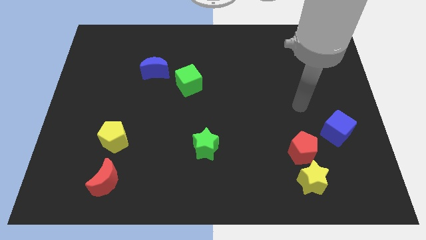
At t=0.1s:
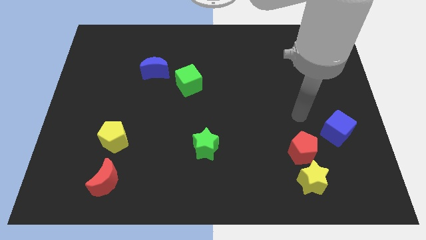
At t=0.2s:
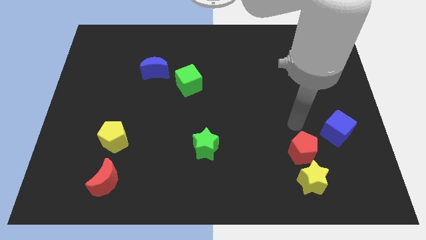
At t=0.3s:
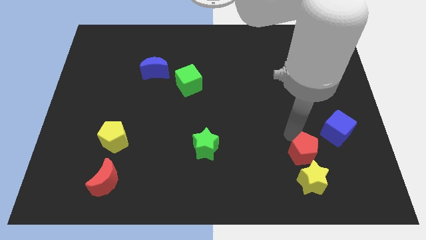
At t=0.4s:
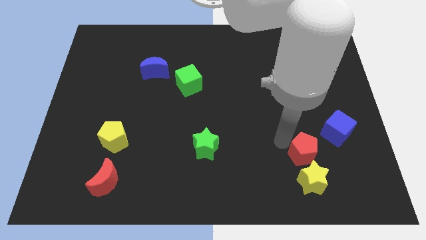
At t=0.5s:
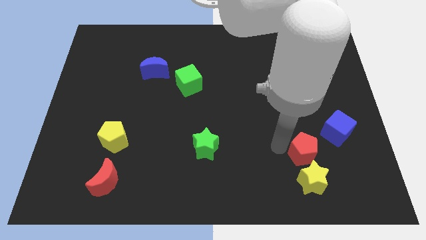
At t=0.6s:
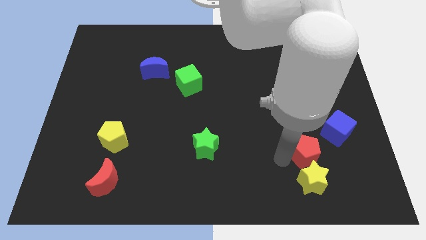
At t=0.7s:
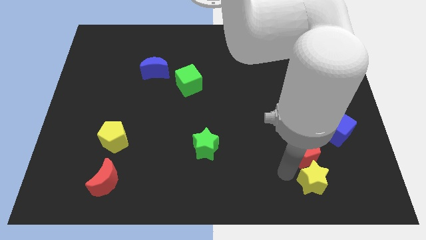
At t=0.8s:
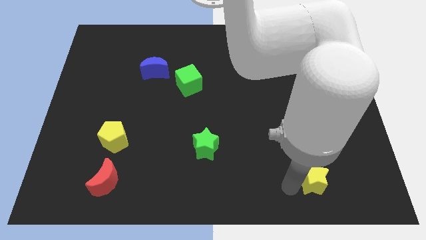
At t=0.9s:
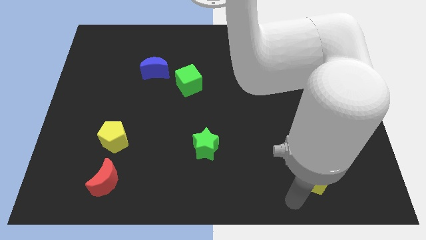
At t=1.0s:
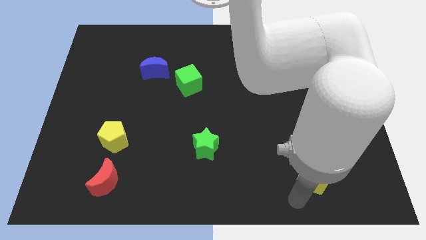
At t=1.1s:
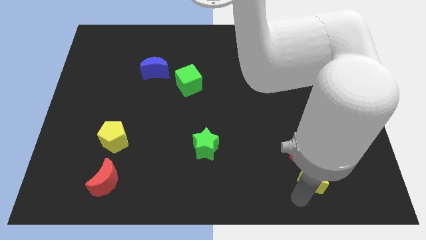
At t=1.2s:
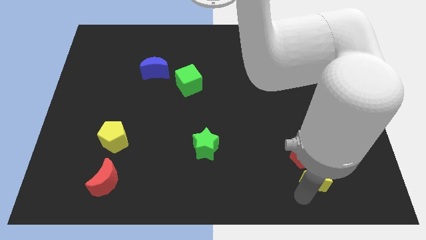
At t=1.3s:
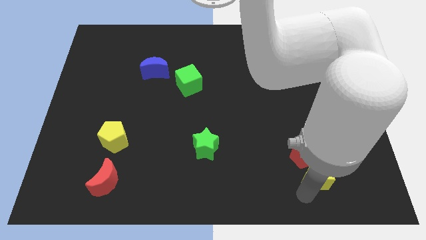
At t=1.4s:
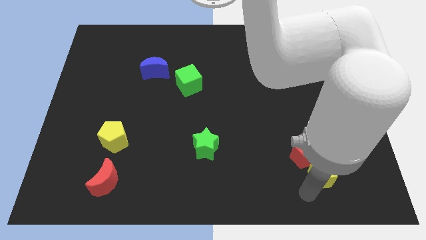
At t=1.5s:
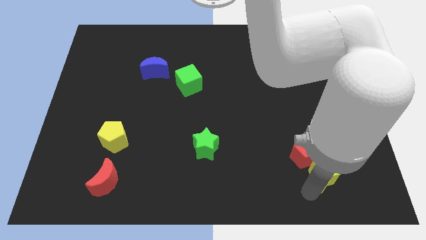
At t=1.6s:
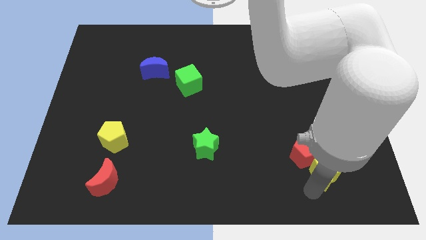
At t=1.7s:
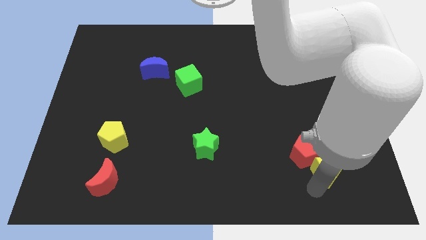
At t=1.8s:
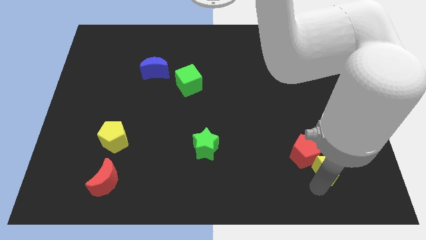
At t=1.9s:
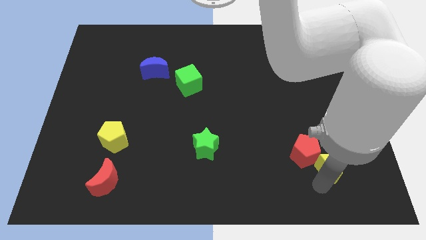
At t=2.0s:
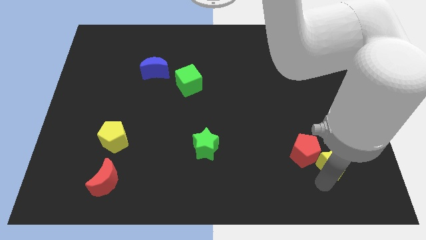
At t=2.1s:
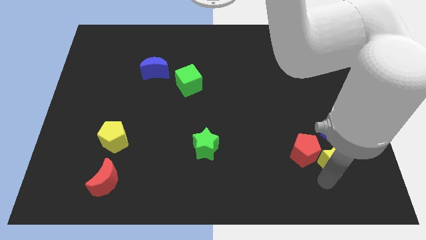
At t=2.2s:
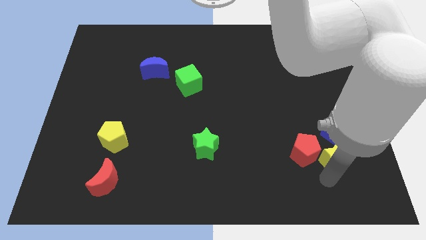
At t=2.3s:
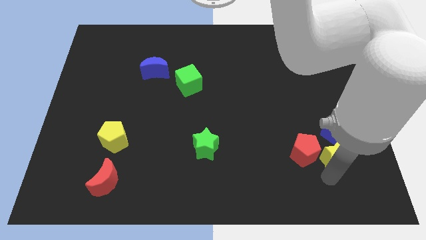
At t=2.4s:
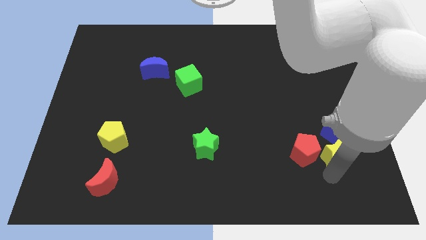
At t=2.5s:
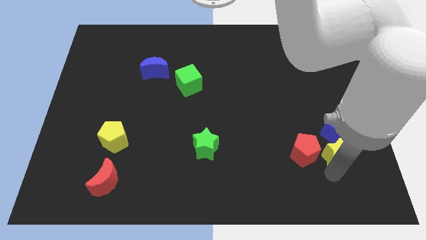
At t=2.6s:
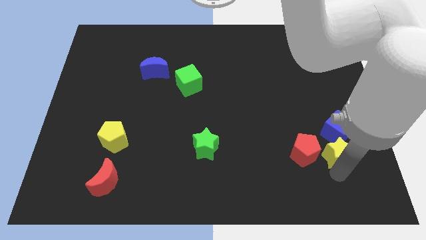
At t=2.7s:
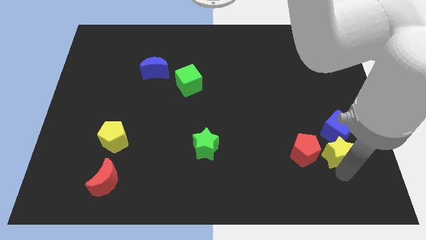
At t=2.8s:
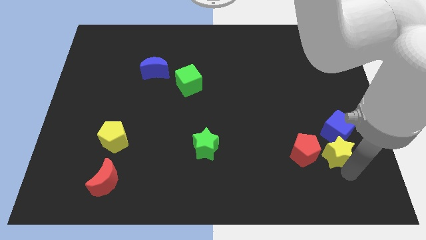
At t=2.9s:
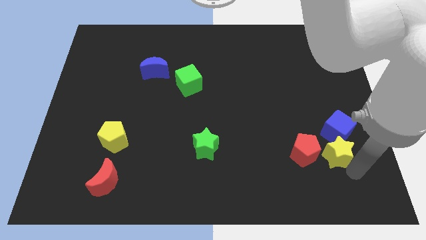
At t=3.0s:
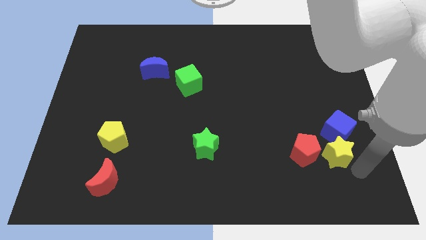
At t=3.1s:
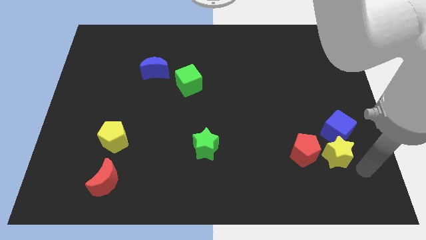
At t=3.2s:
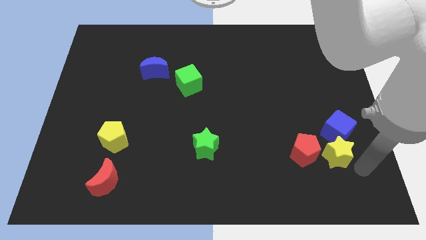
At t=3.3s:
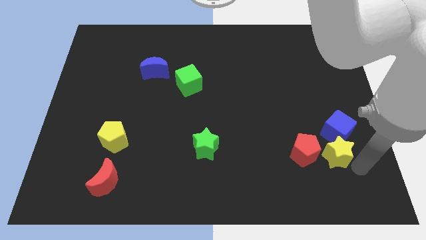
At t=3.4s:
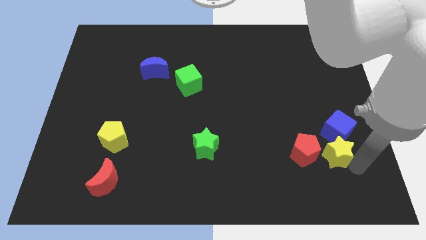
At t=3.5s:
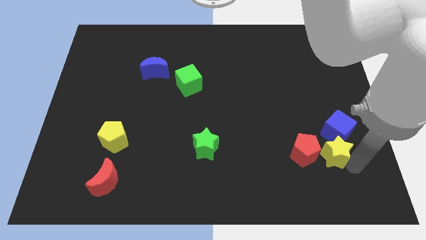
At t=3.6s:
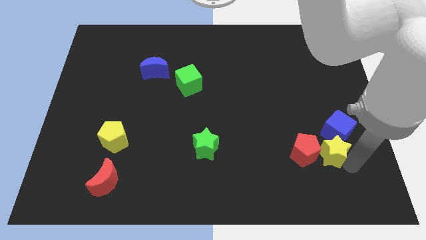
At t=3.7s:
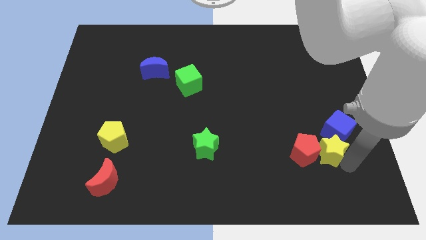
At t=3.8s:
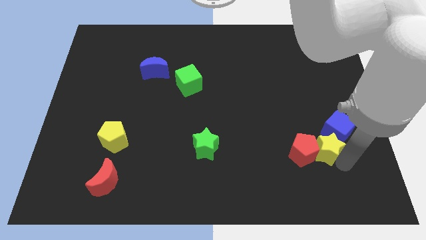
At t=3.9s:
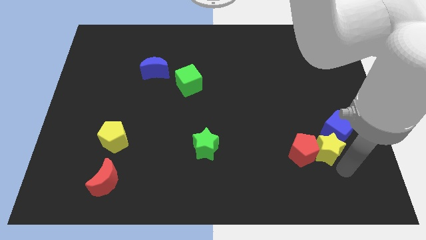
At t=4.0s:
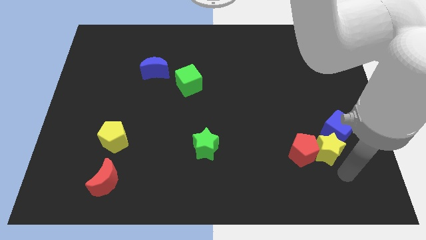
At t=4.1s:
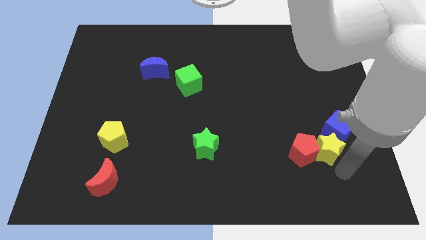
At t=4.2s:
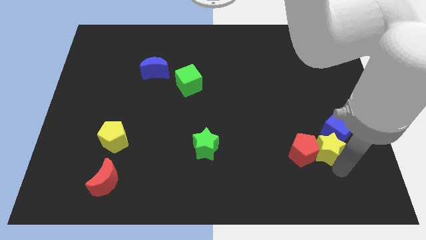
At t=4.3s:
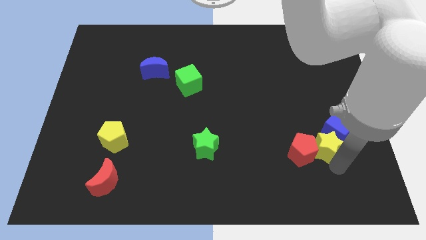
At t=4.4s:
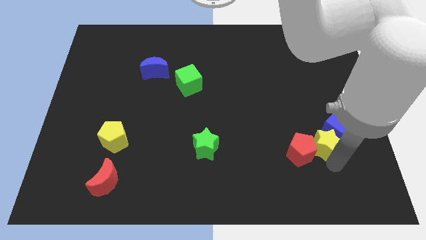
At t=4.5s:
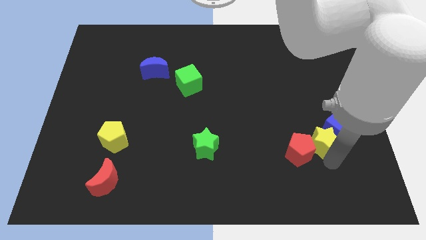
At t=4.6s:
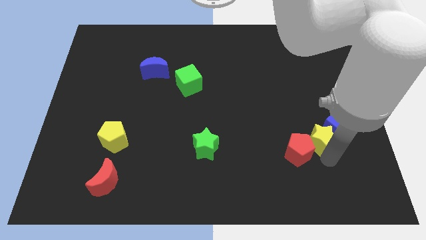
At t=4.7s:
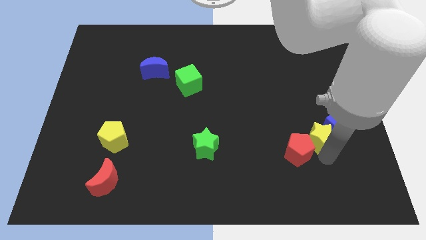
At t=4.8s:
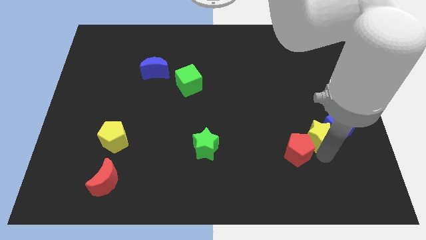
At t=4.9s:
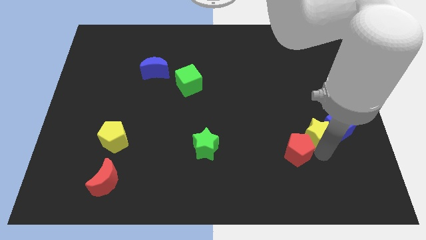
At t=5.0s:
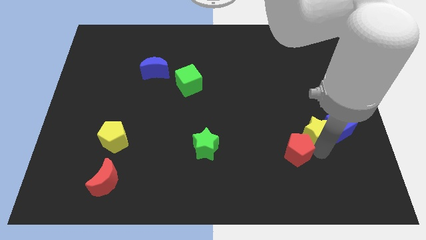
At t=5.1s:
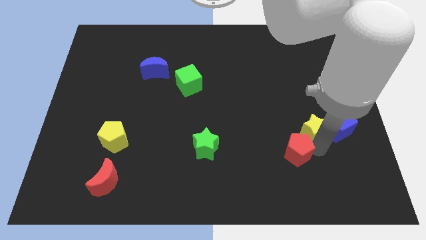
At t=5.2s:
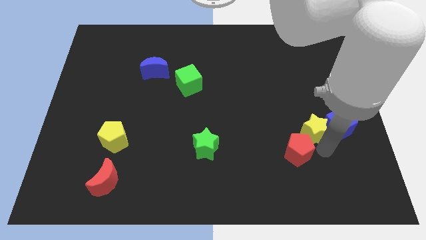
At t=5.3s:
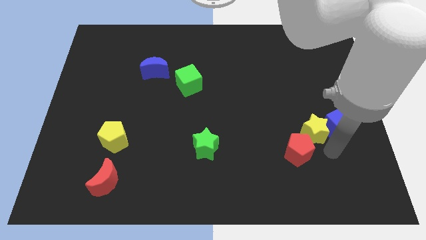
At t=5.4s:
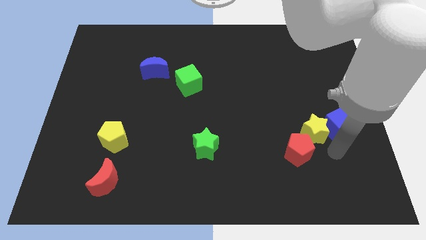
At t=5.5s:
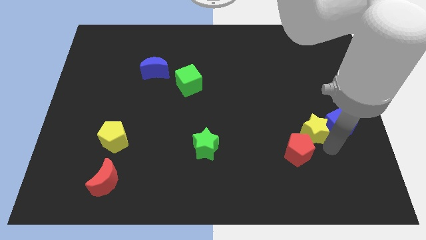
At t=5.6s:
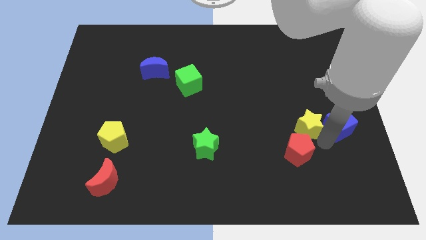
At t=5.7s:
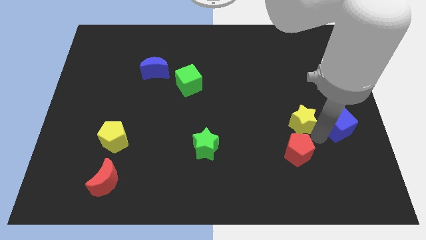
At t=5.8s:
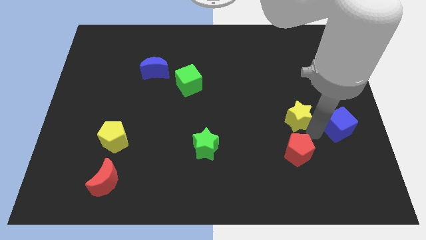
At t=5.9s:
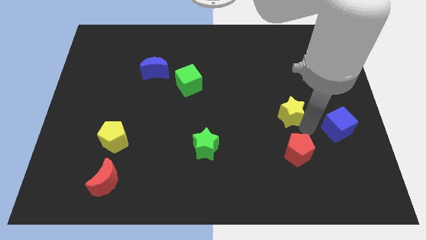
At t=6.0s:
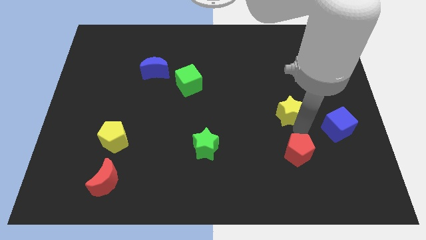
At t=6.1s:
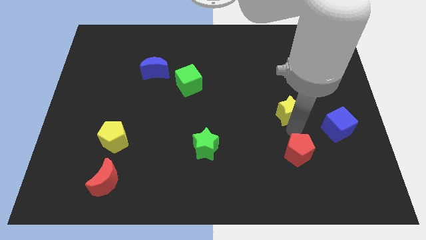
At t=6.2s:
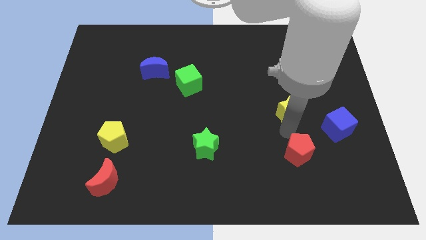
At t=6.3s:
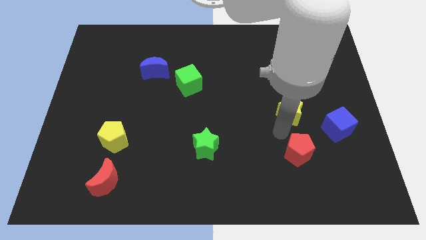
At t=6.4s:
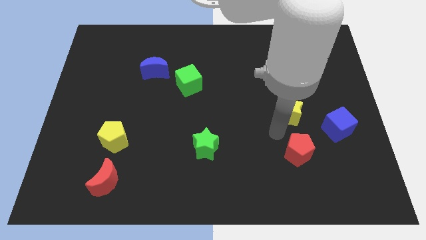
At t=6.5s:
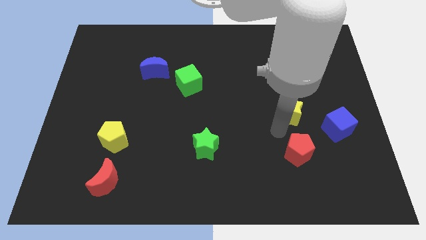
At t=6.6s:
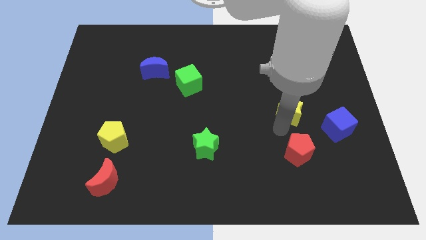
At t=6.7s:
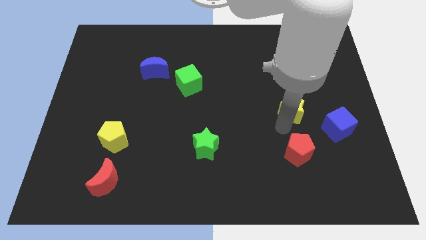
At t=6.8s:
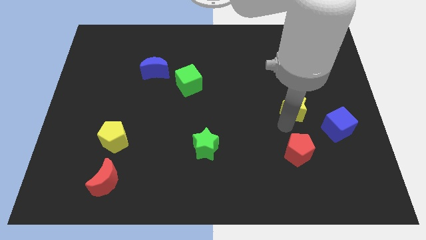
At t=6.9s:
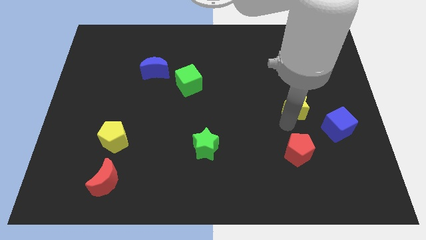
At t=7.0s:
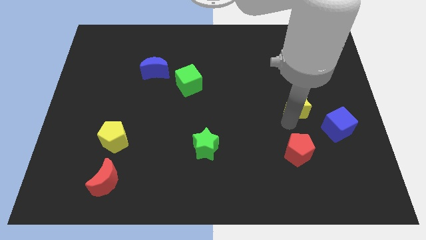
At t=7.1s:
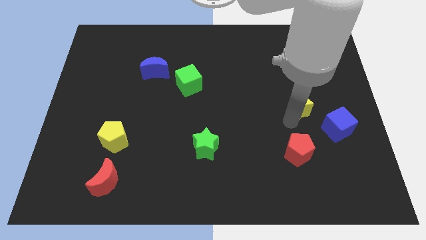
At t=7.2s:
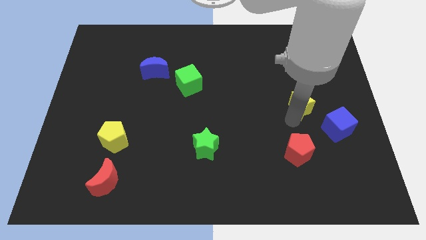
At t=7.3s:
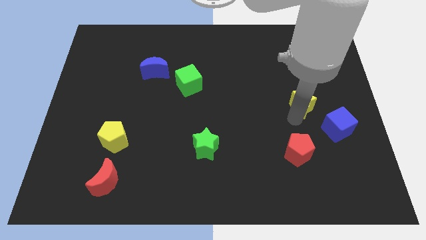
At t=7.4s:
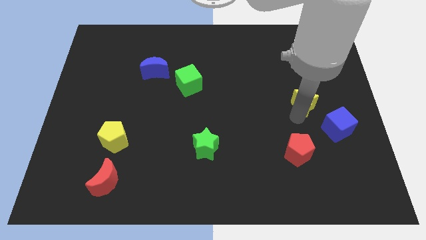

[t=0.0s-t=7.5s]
slide the yellow star up

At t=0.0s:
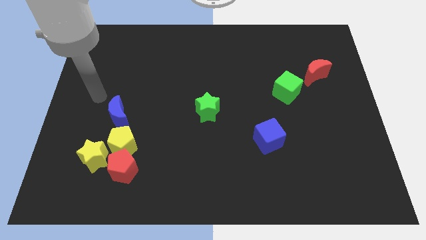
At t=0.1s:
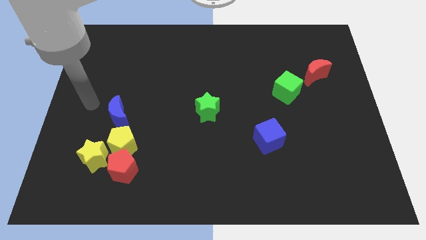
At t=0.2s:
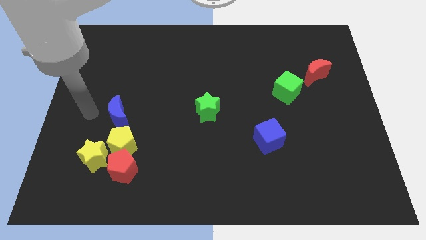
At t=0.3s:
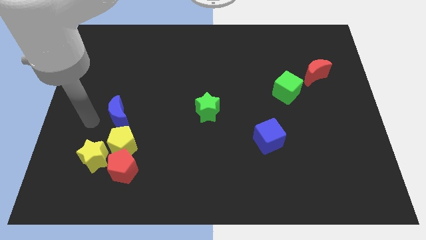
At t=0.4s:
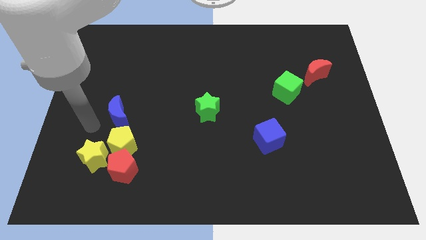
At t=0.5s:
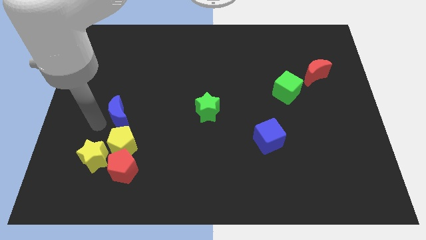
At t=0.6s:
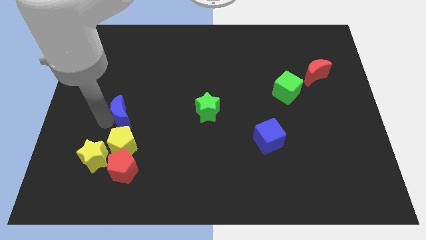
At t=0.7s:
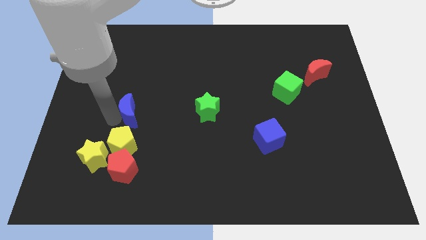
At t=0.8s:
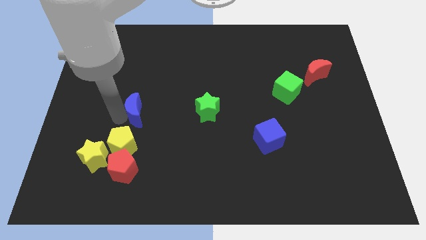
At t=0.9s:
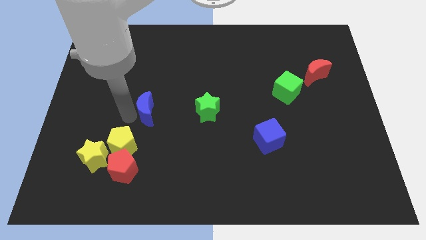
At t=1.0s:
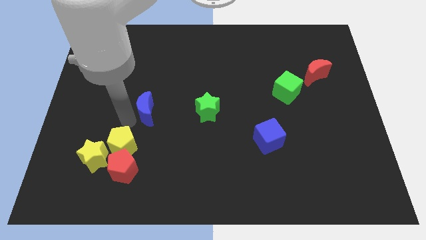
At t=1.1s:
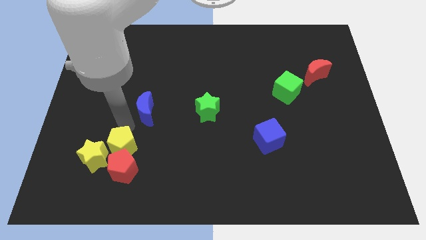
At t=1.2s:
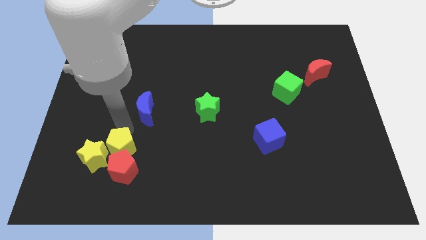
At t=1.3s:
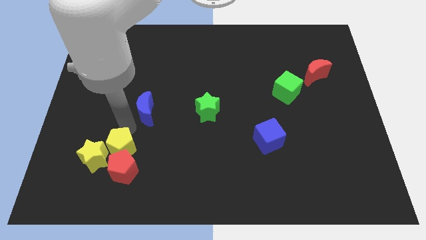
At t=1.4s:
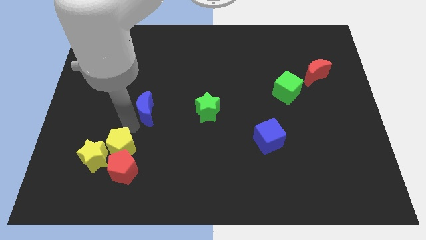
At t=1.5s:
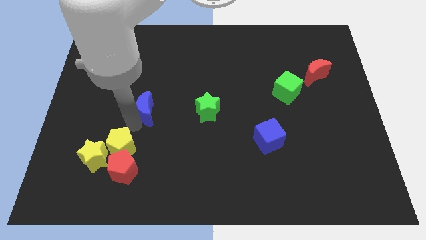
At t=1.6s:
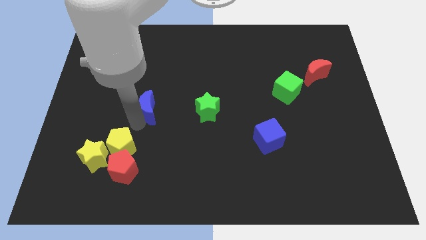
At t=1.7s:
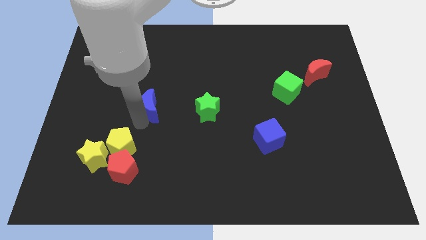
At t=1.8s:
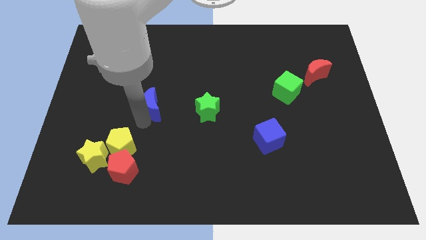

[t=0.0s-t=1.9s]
slide the blue moon upwards and right slightly
